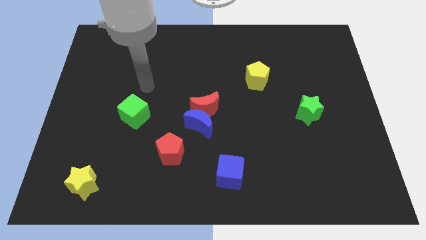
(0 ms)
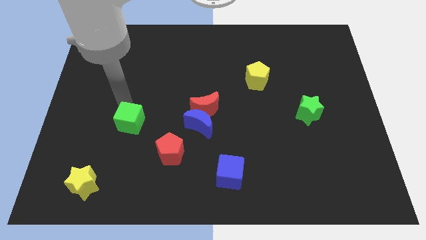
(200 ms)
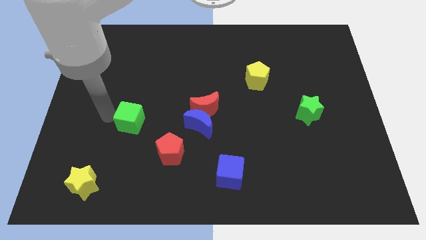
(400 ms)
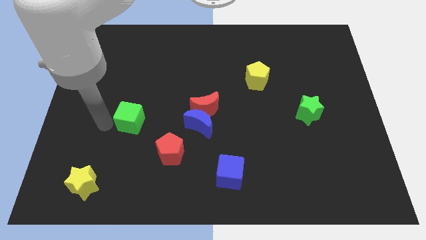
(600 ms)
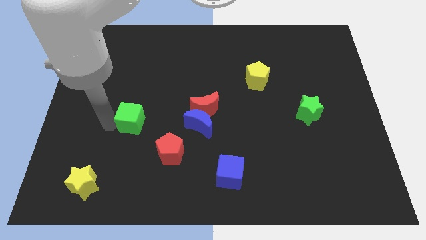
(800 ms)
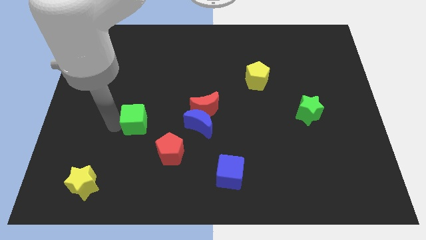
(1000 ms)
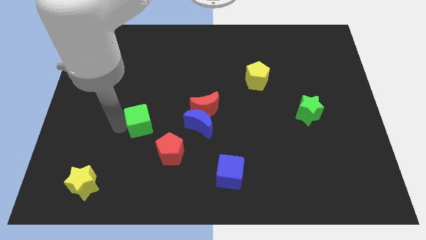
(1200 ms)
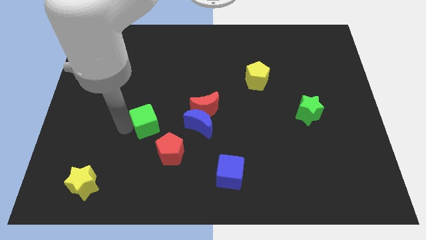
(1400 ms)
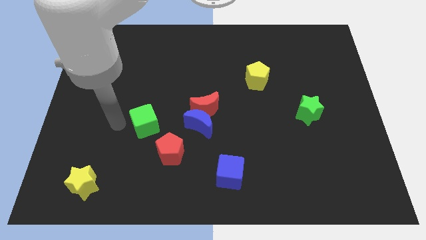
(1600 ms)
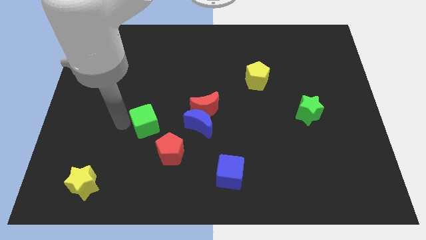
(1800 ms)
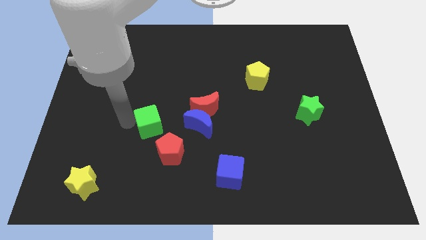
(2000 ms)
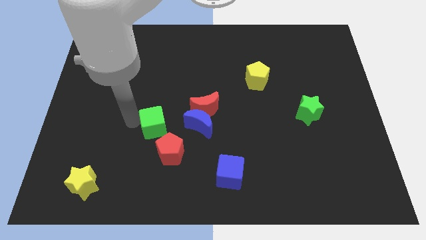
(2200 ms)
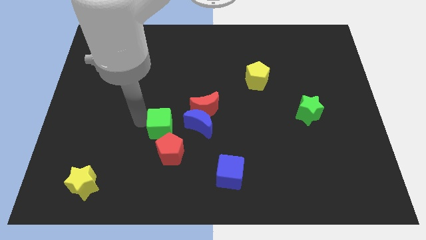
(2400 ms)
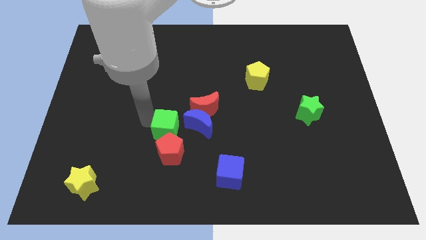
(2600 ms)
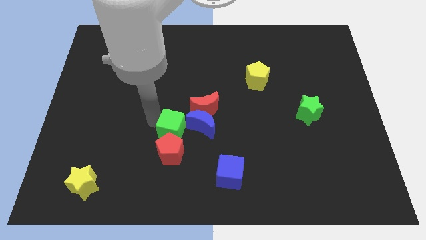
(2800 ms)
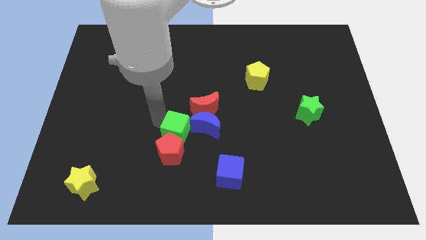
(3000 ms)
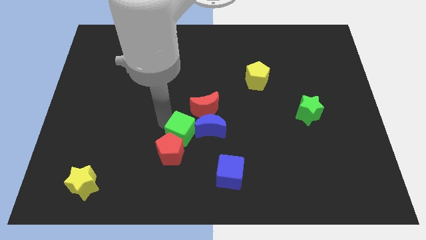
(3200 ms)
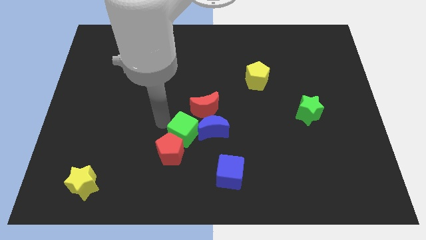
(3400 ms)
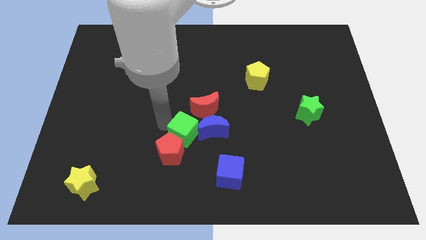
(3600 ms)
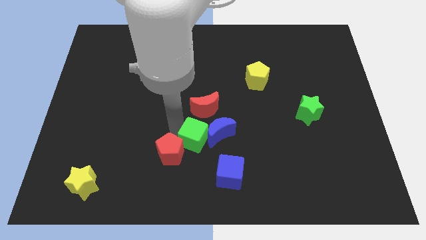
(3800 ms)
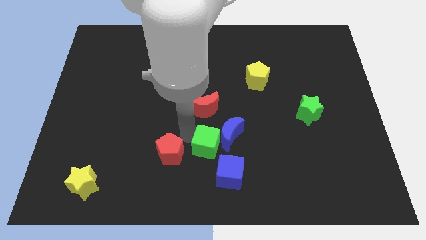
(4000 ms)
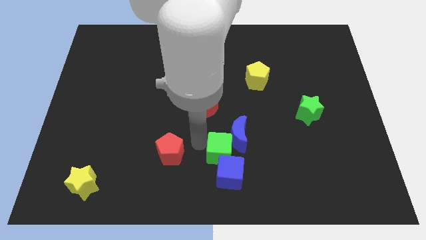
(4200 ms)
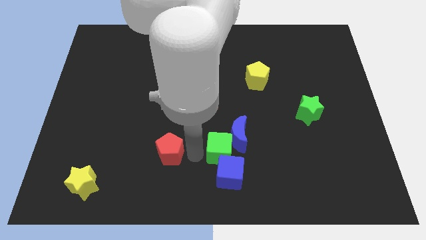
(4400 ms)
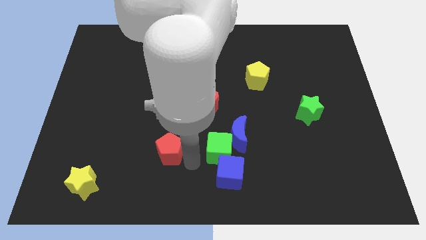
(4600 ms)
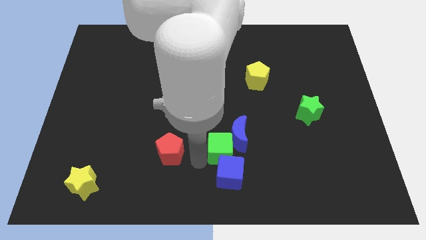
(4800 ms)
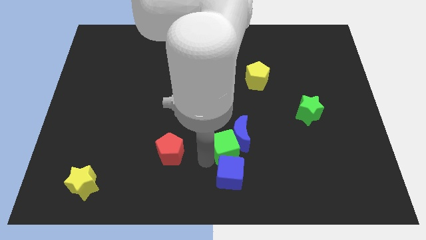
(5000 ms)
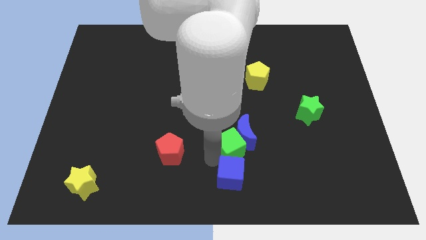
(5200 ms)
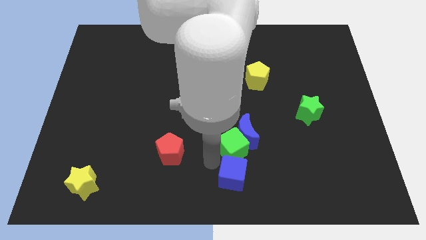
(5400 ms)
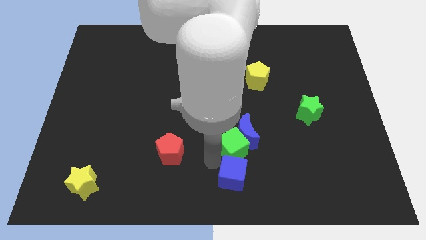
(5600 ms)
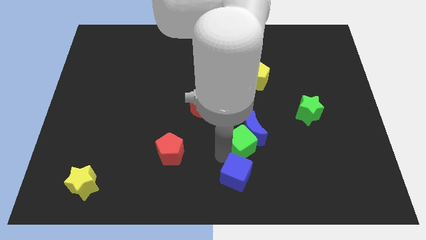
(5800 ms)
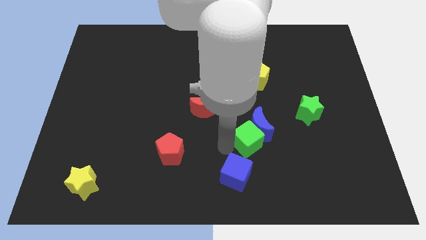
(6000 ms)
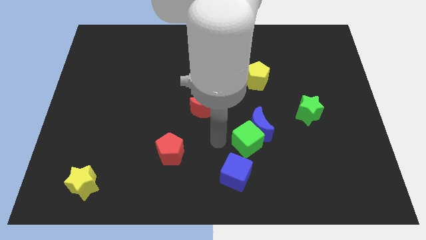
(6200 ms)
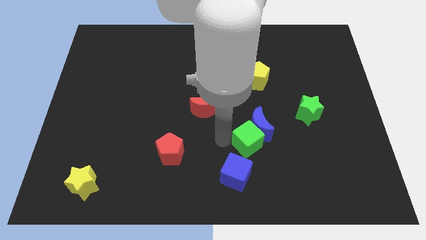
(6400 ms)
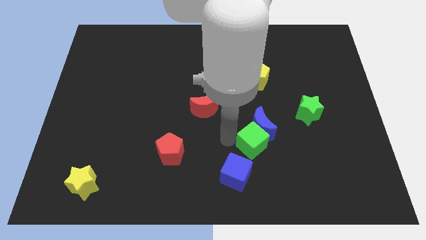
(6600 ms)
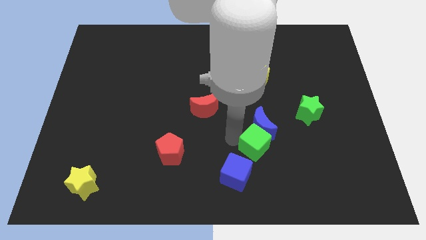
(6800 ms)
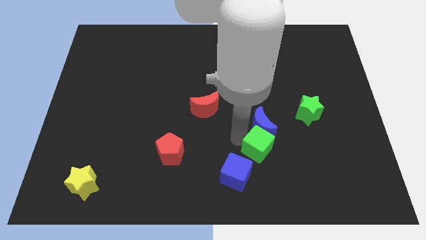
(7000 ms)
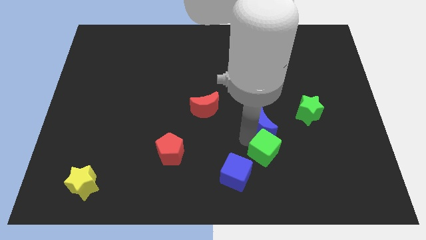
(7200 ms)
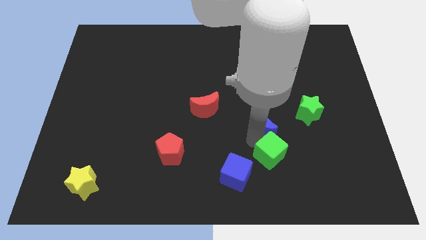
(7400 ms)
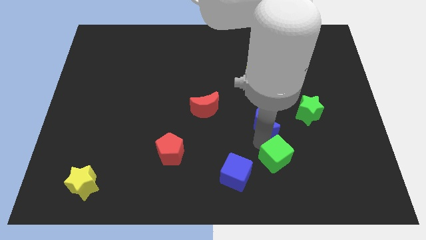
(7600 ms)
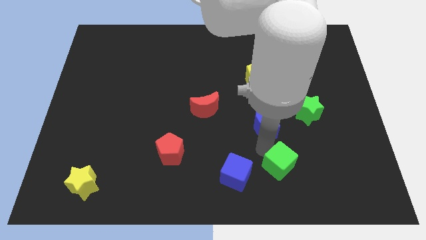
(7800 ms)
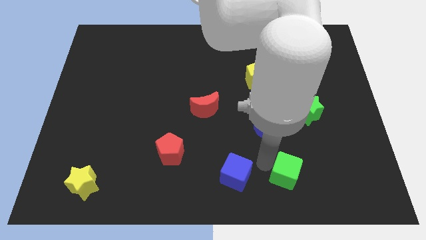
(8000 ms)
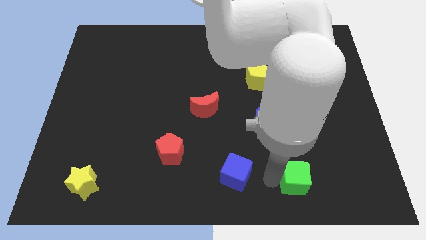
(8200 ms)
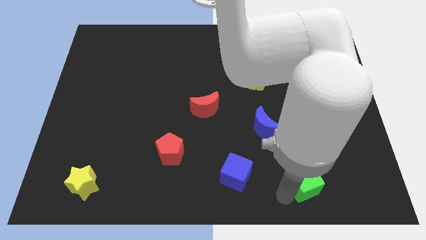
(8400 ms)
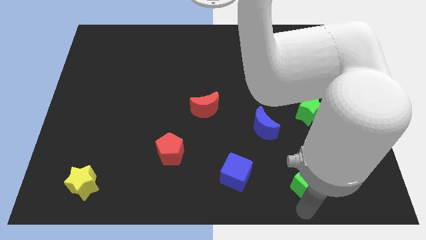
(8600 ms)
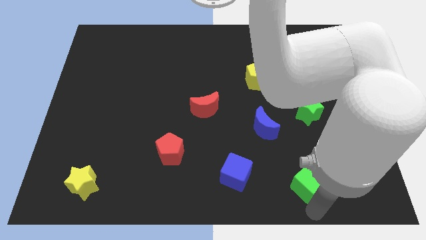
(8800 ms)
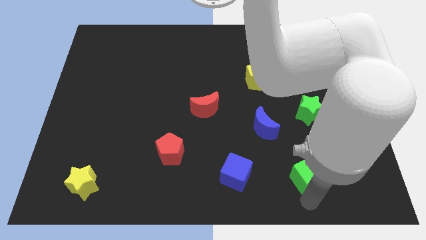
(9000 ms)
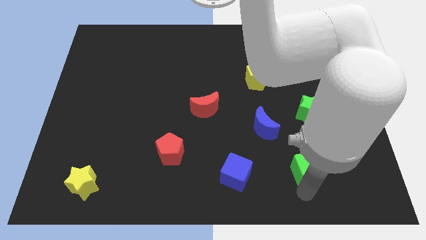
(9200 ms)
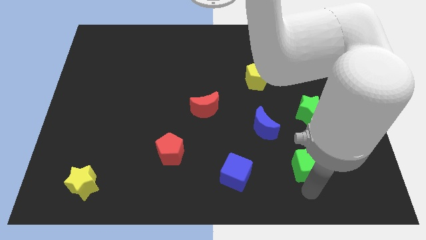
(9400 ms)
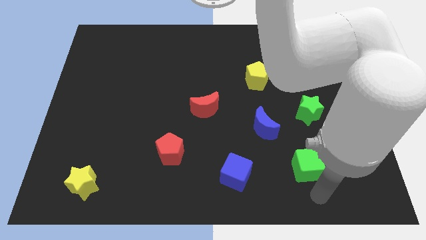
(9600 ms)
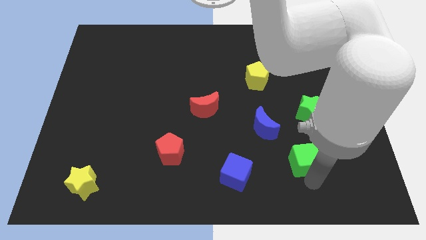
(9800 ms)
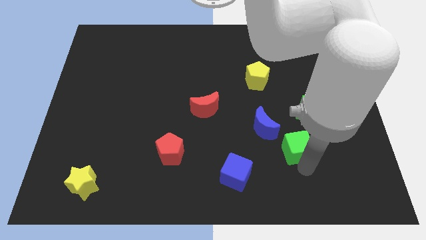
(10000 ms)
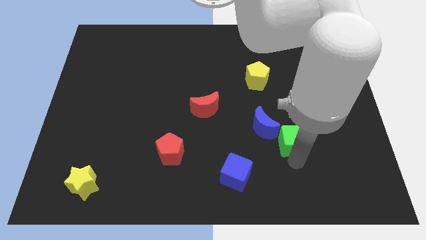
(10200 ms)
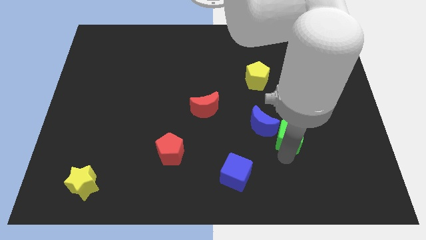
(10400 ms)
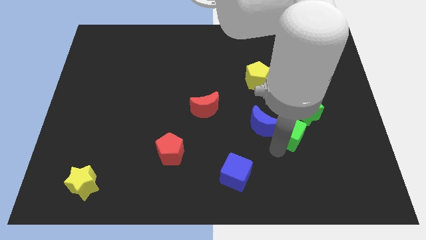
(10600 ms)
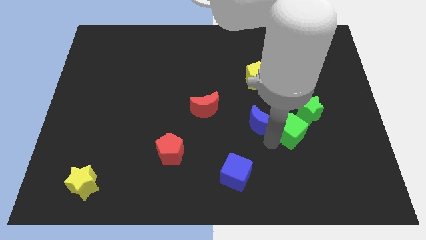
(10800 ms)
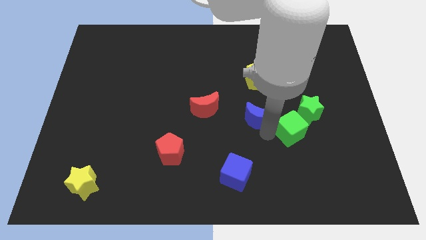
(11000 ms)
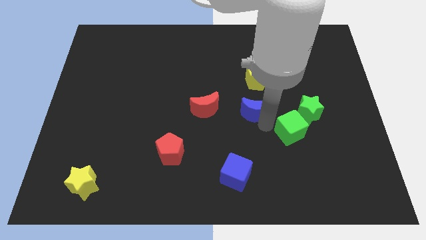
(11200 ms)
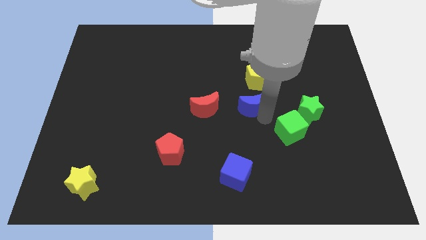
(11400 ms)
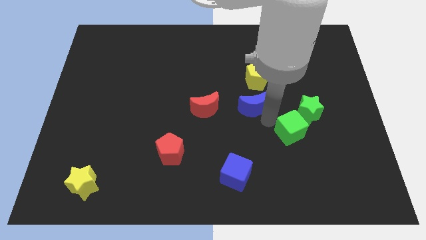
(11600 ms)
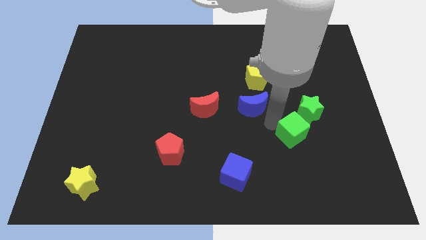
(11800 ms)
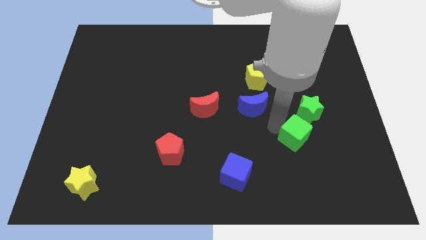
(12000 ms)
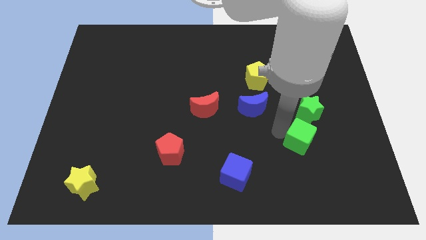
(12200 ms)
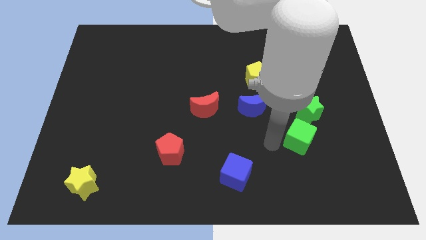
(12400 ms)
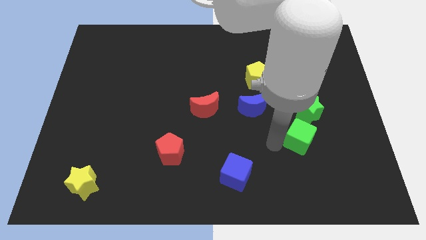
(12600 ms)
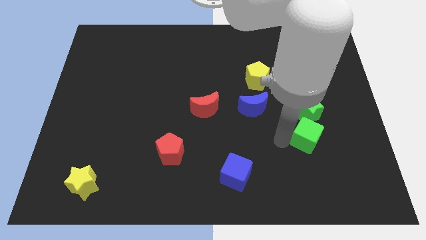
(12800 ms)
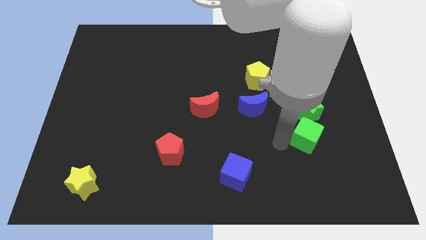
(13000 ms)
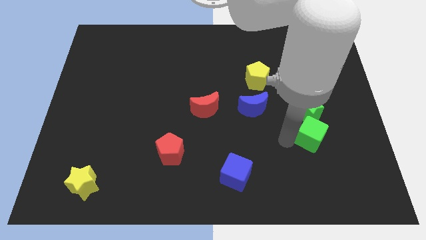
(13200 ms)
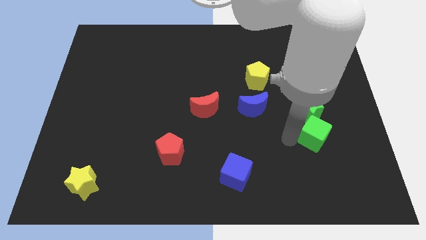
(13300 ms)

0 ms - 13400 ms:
put the green cube diagonally down and to the right of the green star

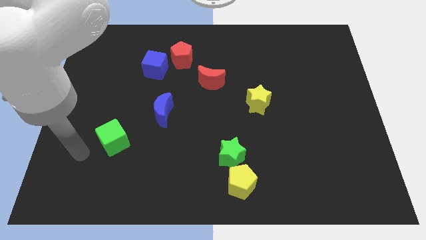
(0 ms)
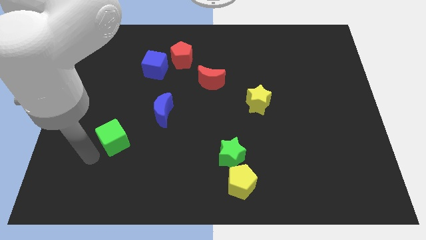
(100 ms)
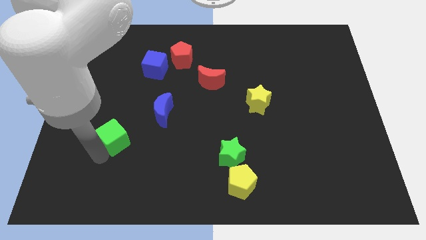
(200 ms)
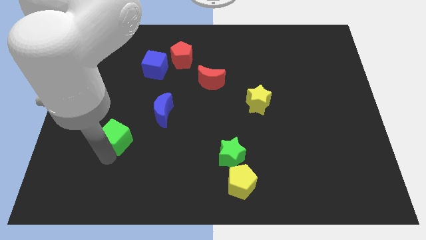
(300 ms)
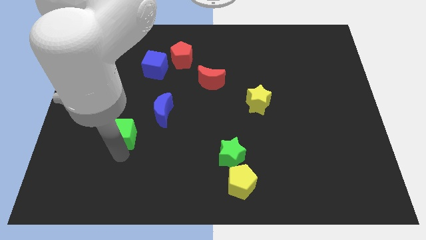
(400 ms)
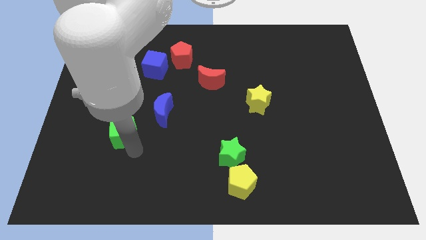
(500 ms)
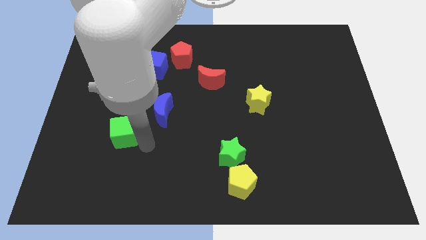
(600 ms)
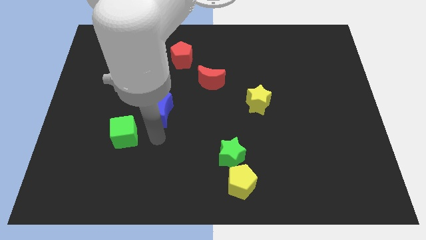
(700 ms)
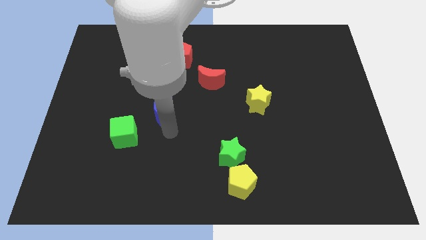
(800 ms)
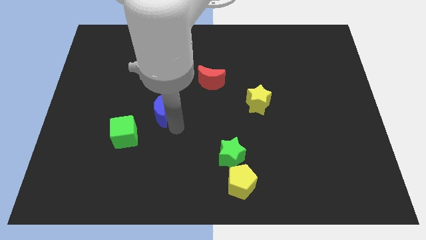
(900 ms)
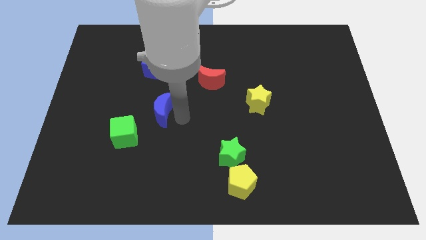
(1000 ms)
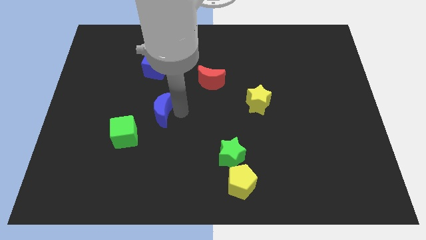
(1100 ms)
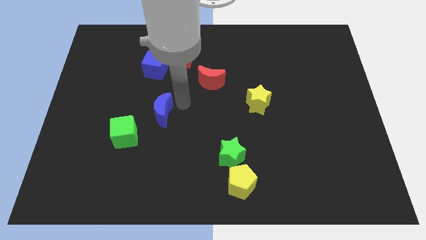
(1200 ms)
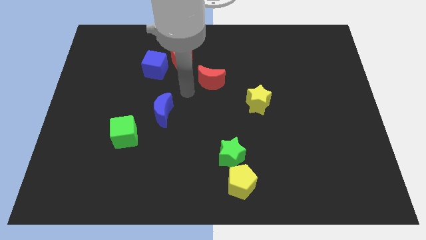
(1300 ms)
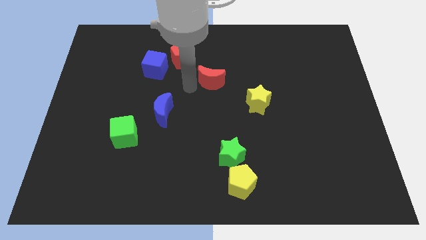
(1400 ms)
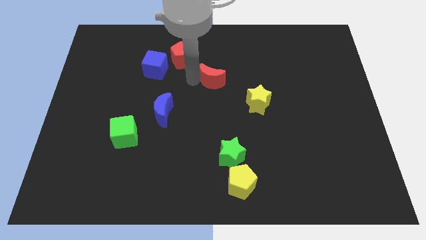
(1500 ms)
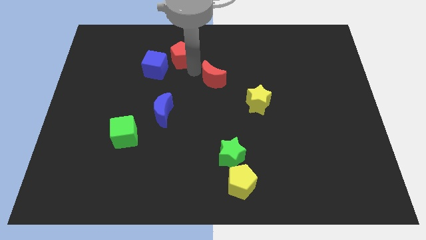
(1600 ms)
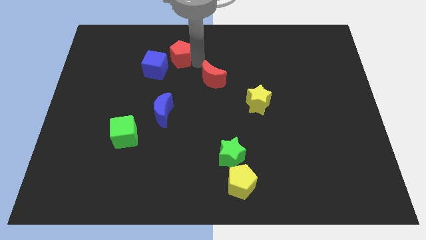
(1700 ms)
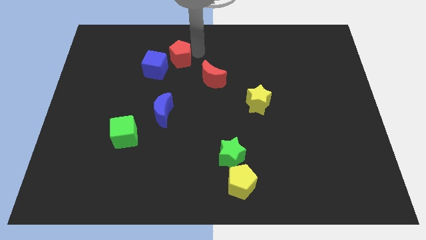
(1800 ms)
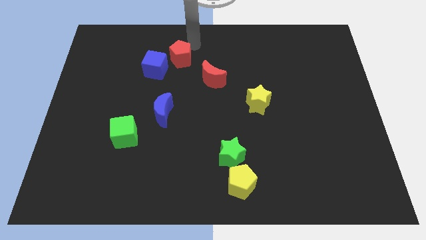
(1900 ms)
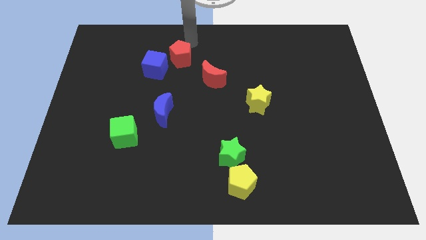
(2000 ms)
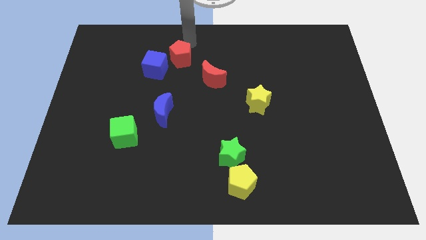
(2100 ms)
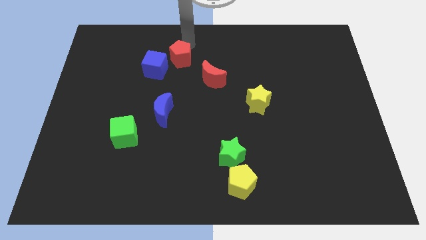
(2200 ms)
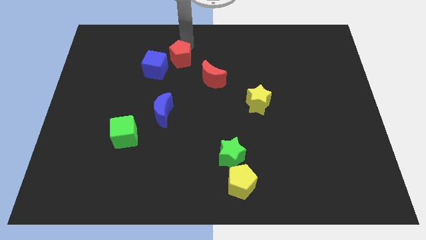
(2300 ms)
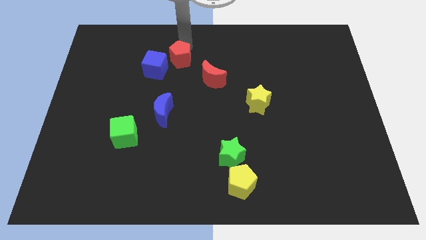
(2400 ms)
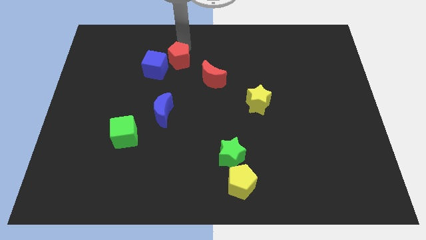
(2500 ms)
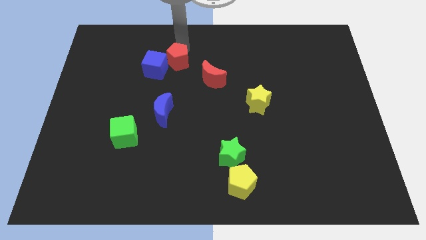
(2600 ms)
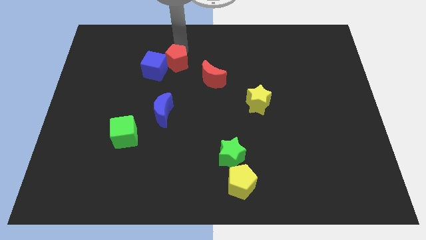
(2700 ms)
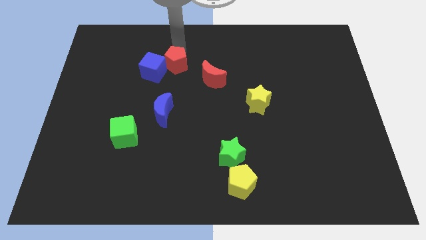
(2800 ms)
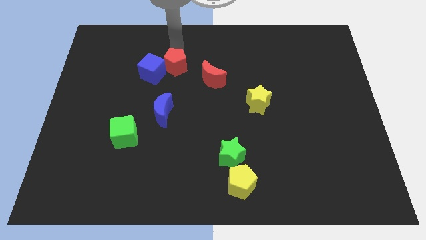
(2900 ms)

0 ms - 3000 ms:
slide the red pentagon left of the red moon
